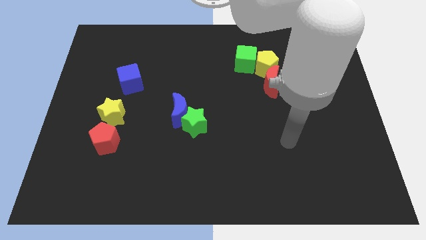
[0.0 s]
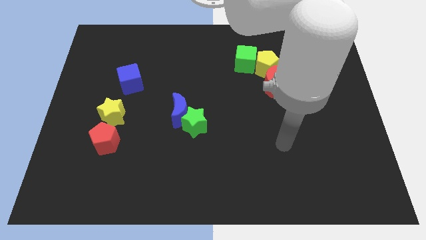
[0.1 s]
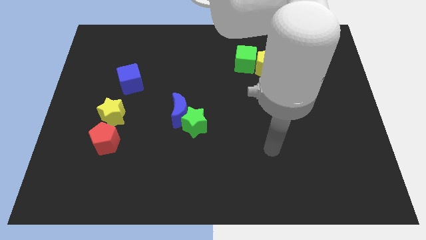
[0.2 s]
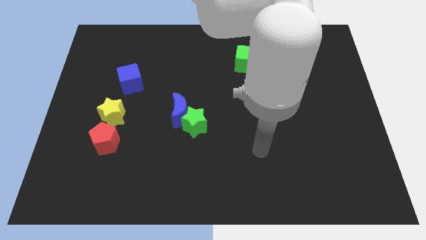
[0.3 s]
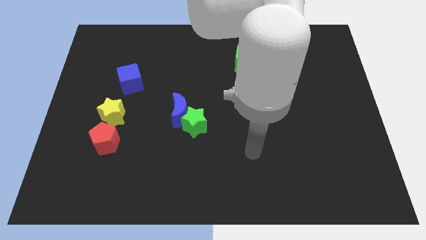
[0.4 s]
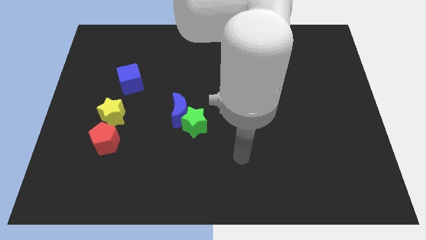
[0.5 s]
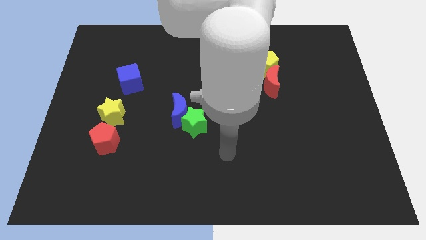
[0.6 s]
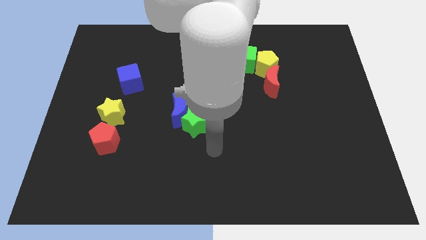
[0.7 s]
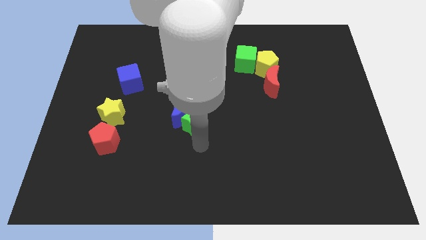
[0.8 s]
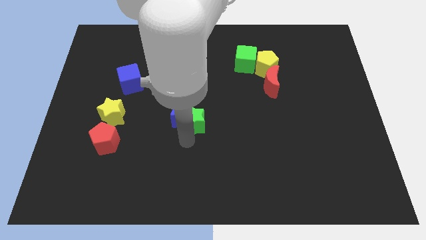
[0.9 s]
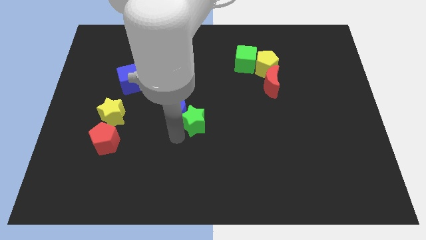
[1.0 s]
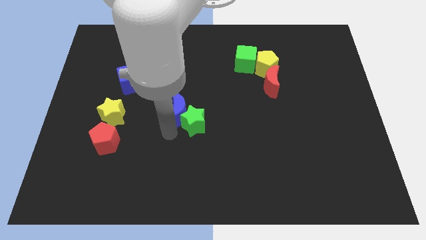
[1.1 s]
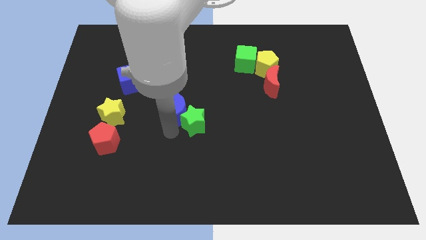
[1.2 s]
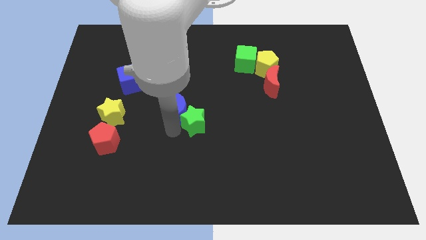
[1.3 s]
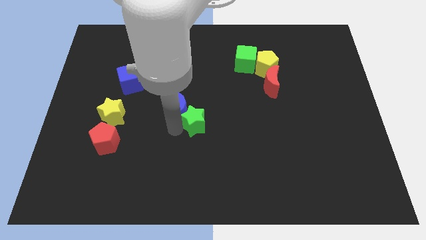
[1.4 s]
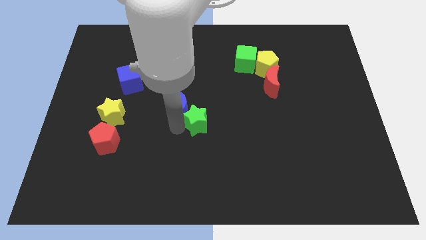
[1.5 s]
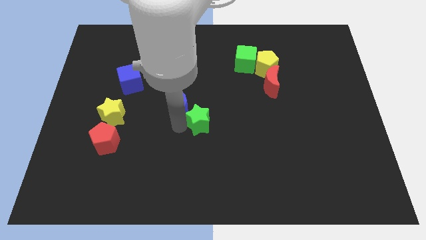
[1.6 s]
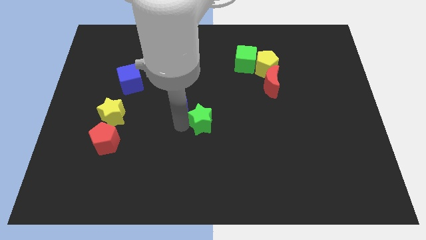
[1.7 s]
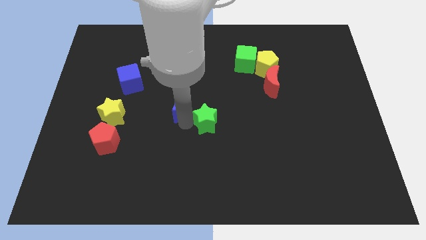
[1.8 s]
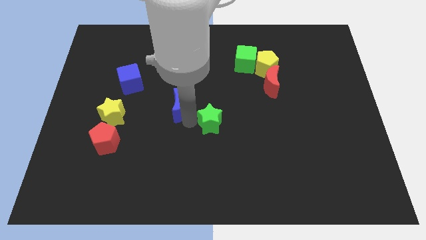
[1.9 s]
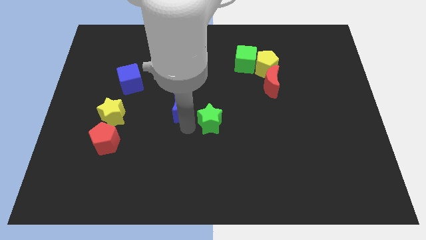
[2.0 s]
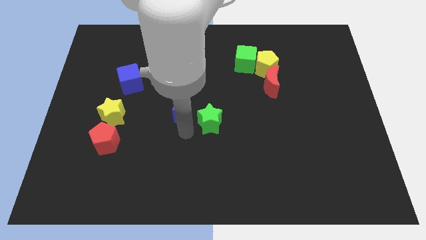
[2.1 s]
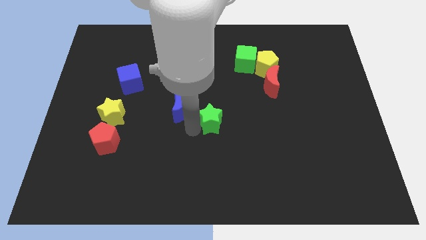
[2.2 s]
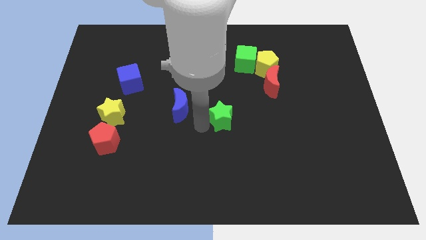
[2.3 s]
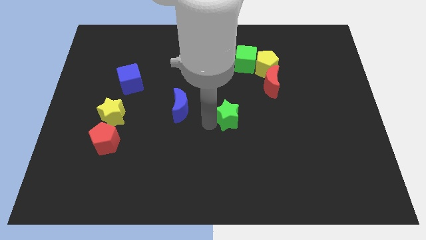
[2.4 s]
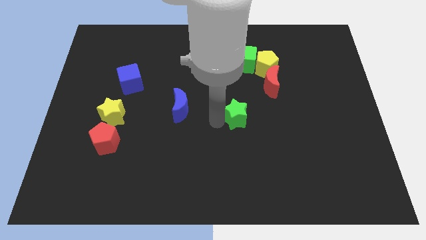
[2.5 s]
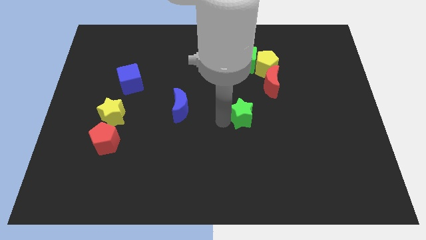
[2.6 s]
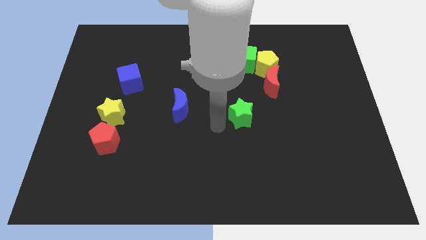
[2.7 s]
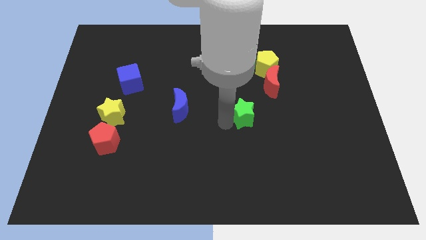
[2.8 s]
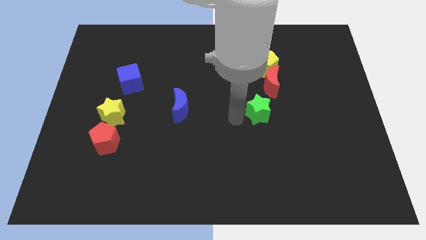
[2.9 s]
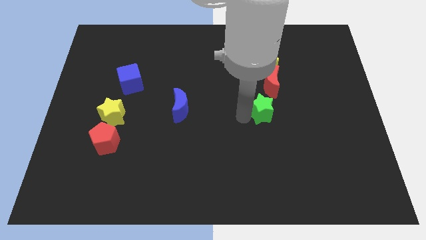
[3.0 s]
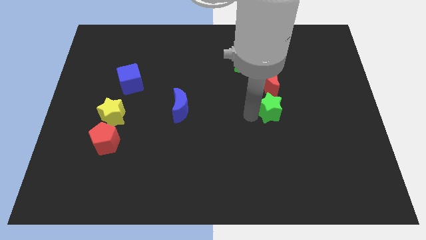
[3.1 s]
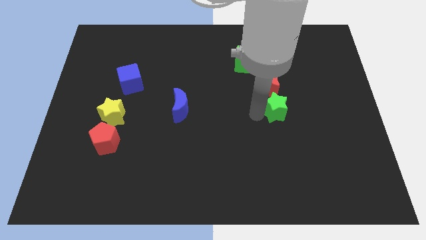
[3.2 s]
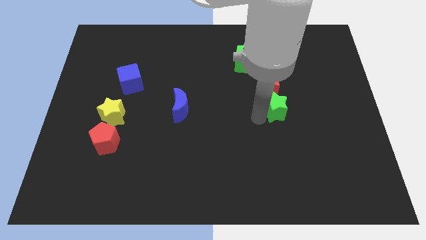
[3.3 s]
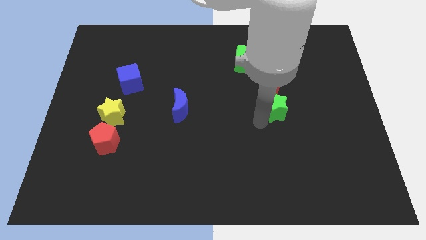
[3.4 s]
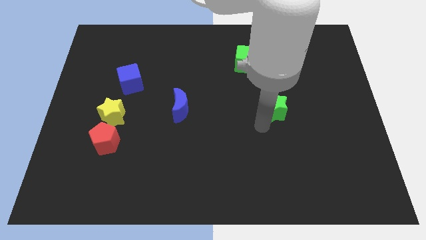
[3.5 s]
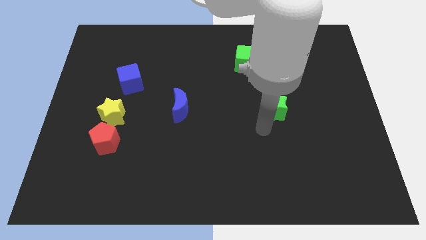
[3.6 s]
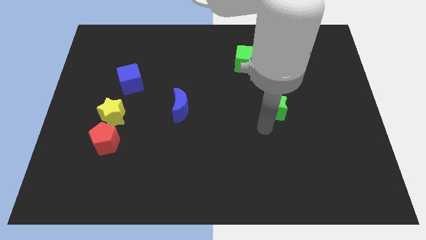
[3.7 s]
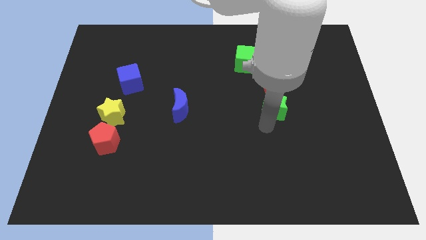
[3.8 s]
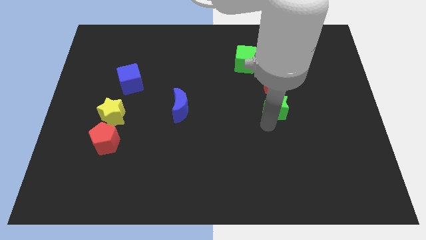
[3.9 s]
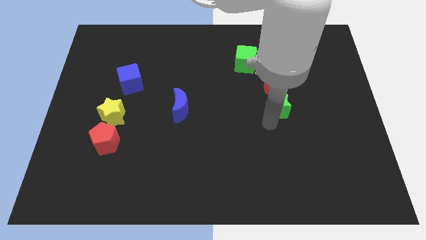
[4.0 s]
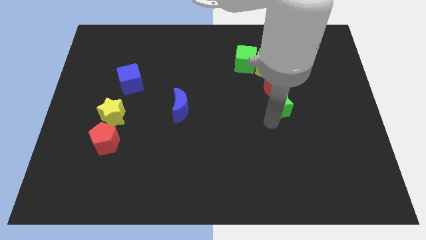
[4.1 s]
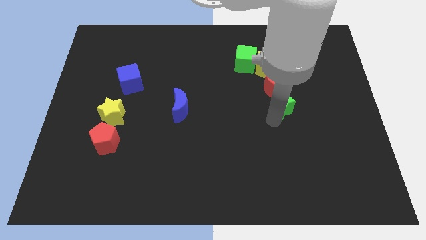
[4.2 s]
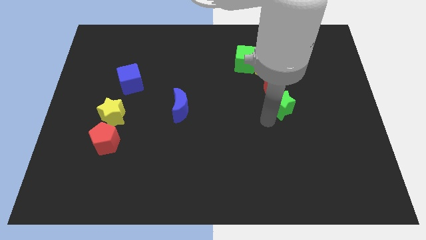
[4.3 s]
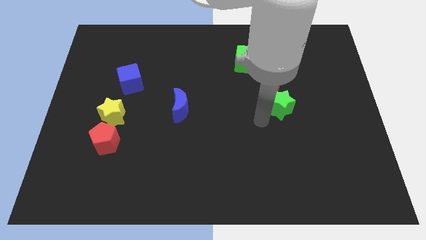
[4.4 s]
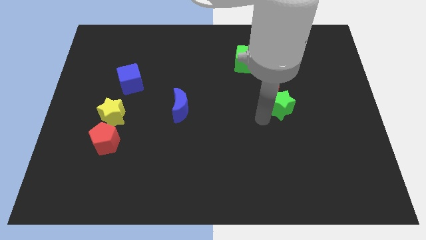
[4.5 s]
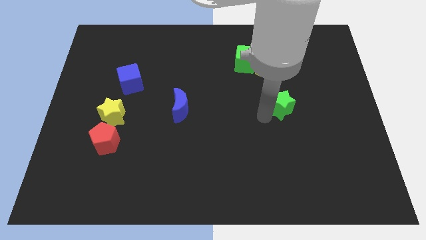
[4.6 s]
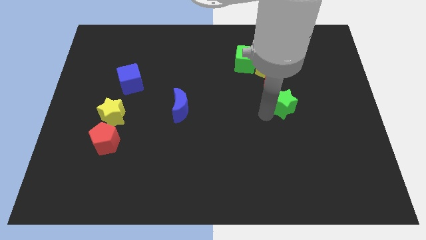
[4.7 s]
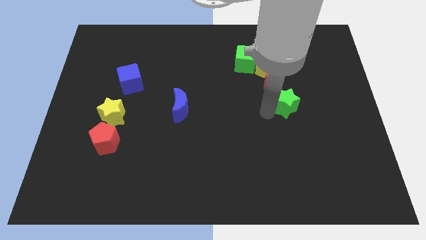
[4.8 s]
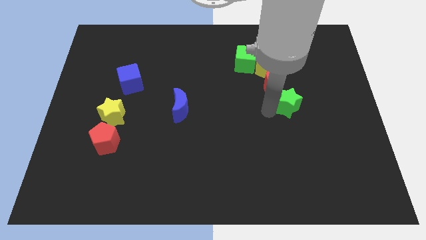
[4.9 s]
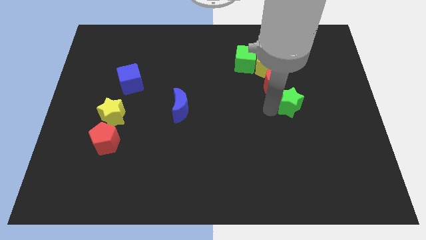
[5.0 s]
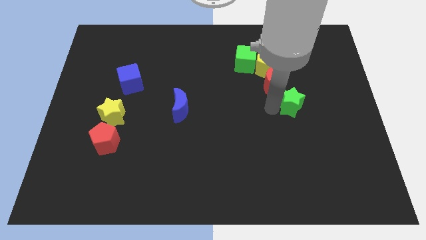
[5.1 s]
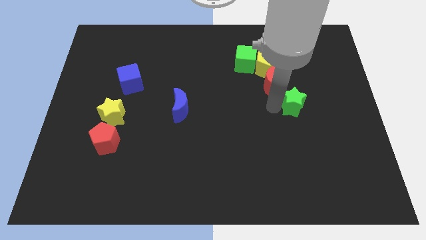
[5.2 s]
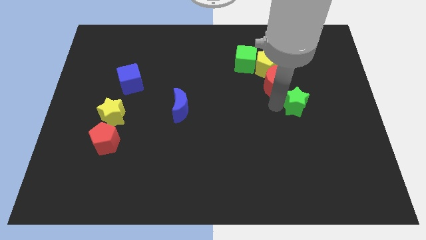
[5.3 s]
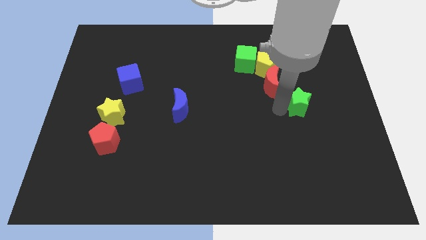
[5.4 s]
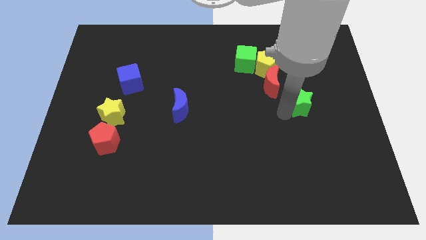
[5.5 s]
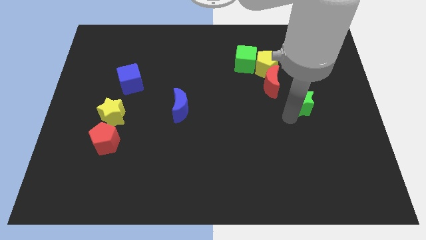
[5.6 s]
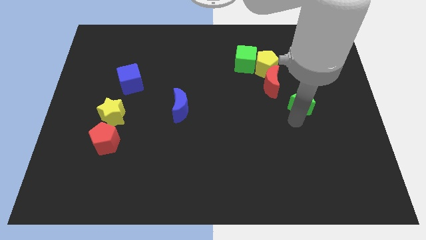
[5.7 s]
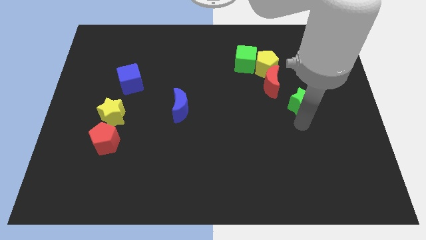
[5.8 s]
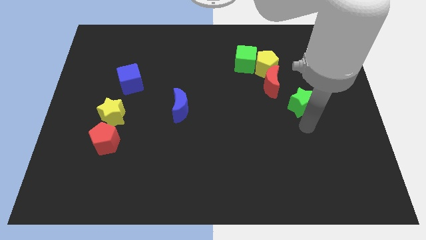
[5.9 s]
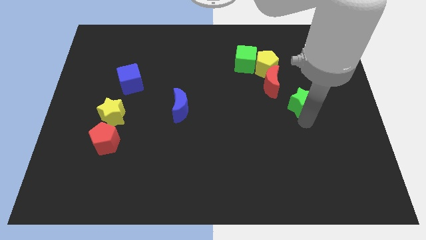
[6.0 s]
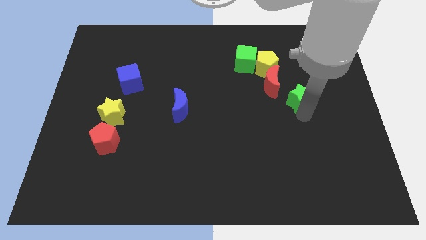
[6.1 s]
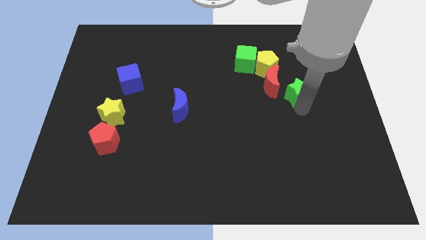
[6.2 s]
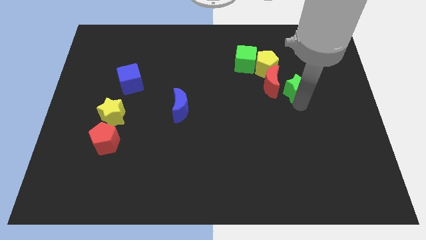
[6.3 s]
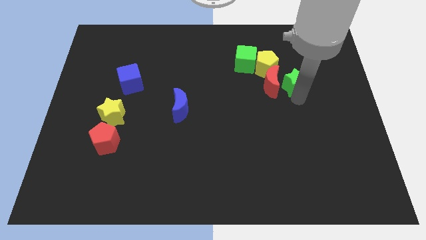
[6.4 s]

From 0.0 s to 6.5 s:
push the green star diagonally up and to the right of the red moon
